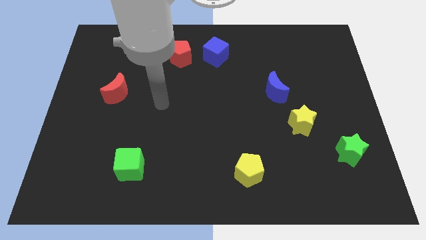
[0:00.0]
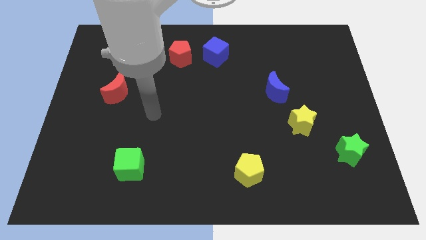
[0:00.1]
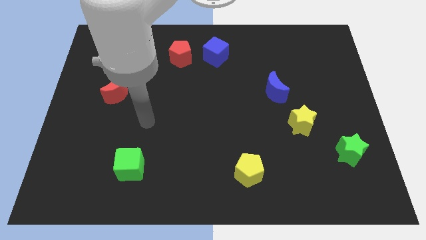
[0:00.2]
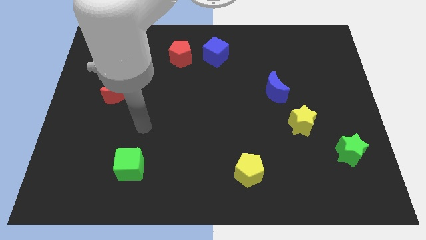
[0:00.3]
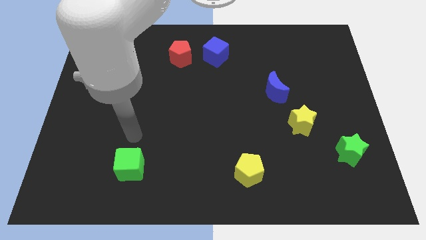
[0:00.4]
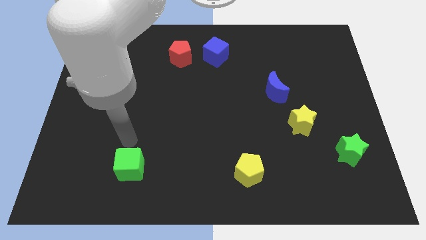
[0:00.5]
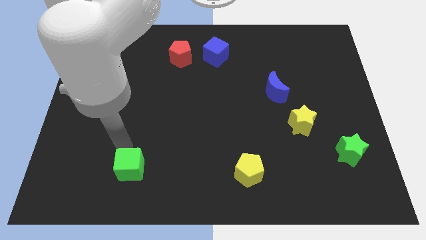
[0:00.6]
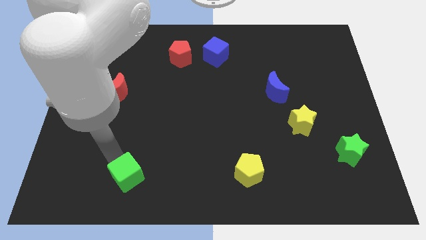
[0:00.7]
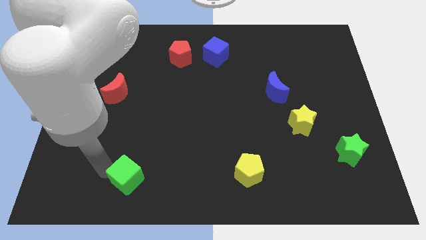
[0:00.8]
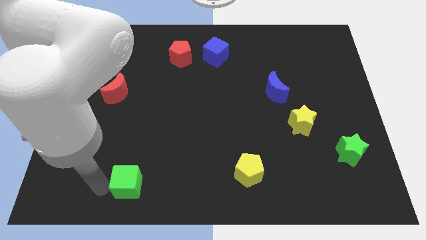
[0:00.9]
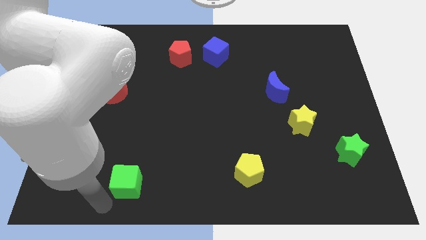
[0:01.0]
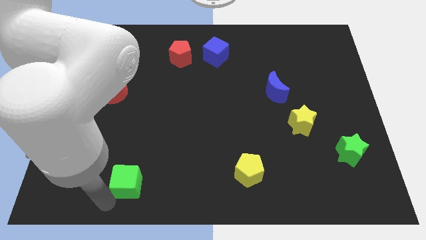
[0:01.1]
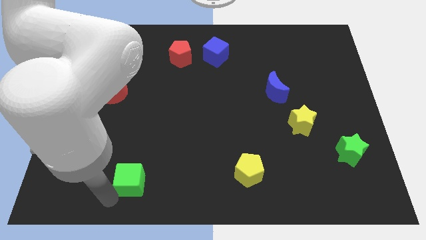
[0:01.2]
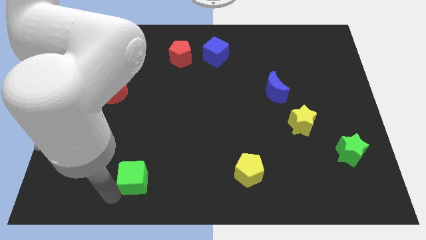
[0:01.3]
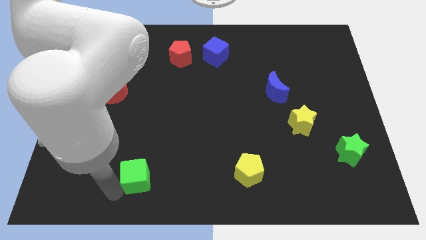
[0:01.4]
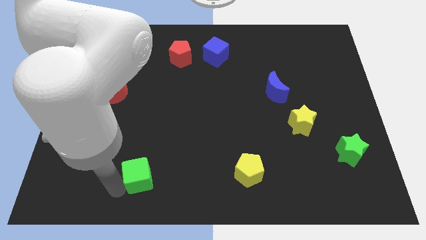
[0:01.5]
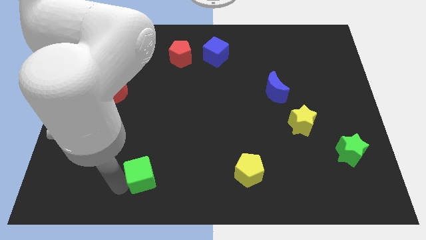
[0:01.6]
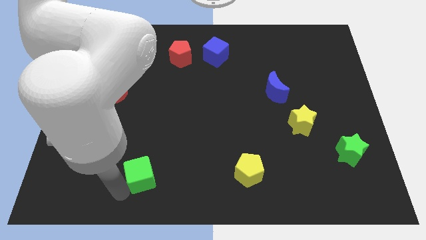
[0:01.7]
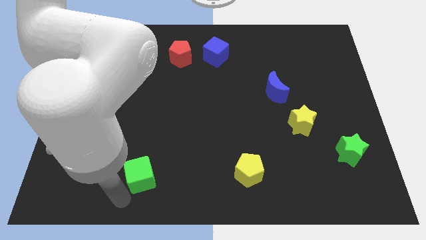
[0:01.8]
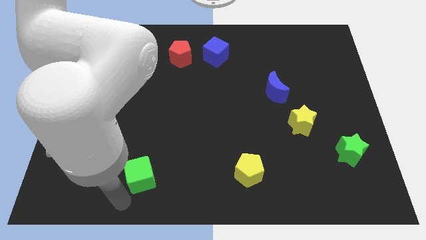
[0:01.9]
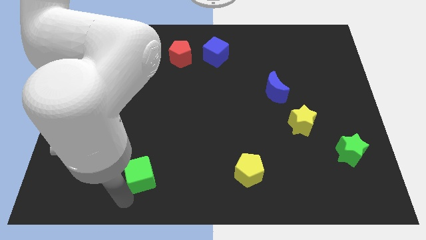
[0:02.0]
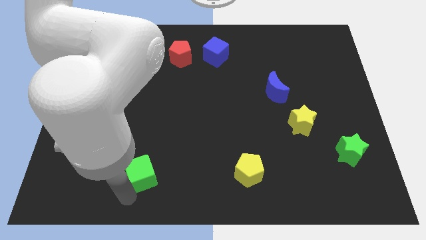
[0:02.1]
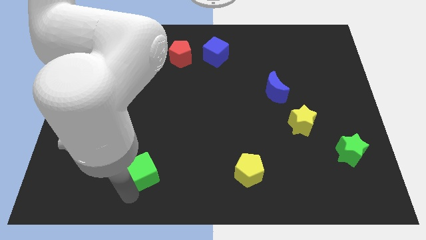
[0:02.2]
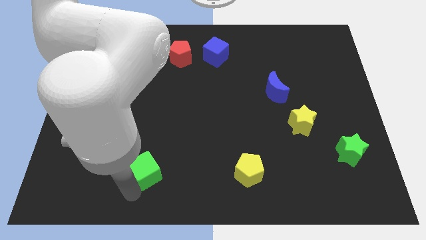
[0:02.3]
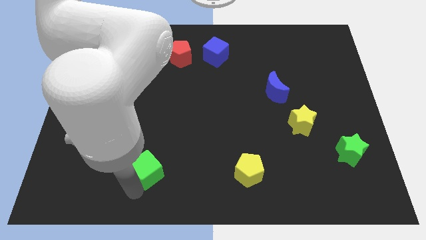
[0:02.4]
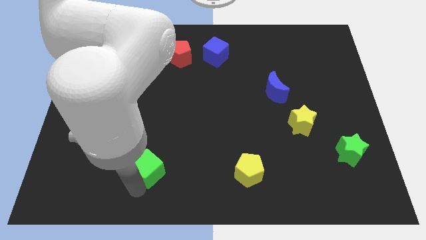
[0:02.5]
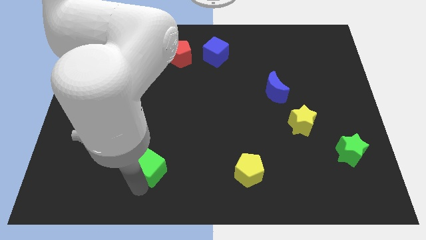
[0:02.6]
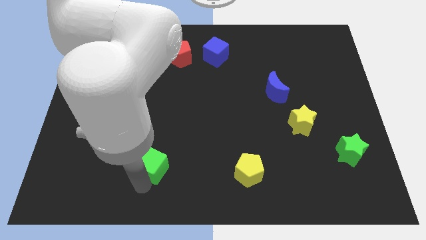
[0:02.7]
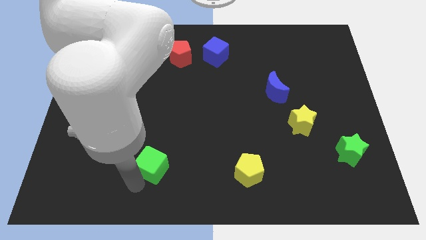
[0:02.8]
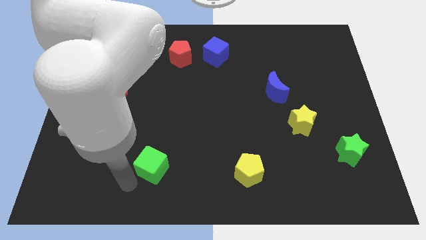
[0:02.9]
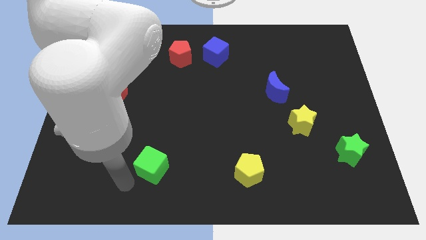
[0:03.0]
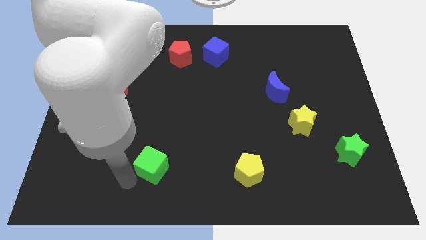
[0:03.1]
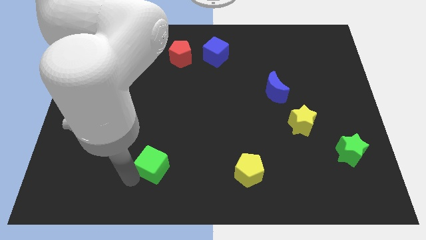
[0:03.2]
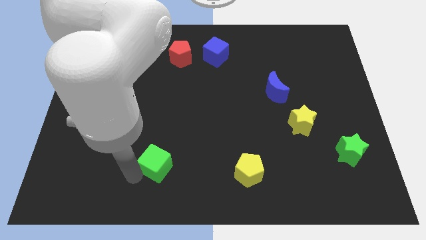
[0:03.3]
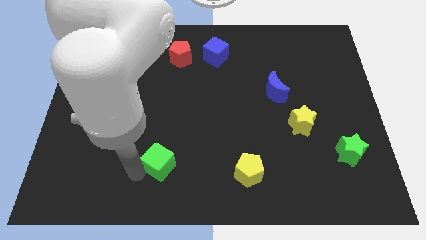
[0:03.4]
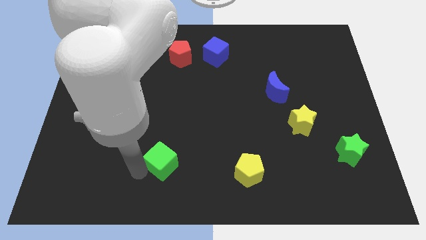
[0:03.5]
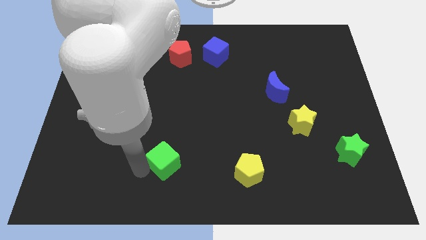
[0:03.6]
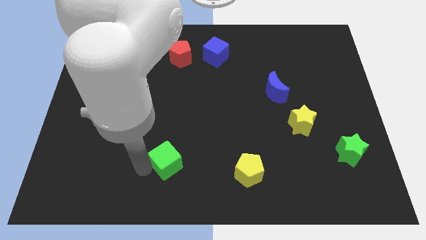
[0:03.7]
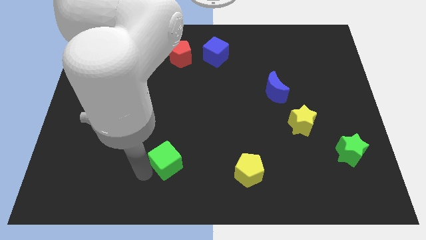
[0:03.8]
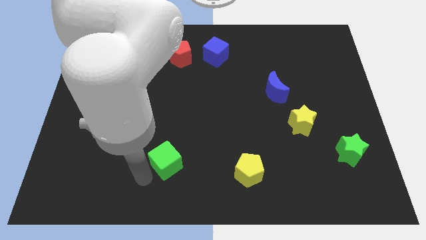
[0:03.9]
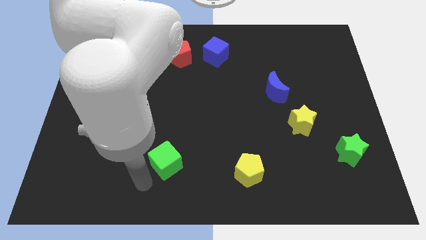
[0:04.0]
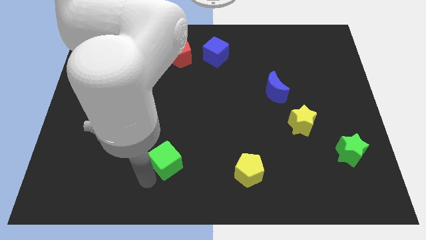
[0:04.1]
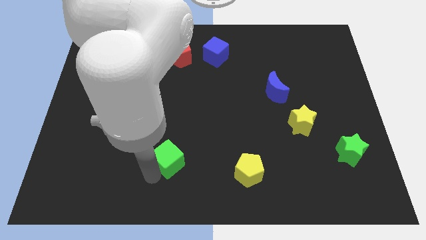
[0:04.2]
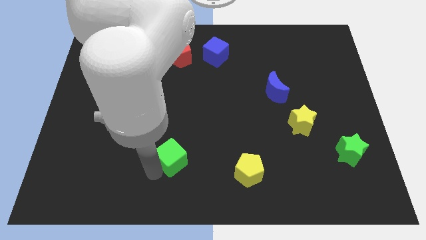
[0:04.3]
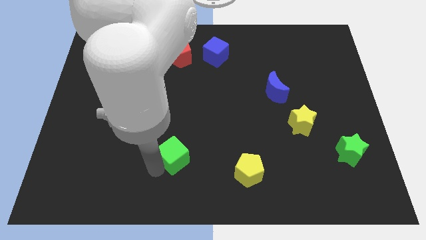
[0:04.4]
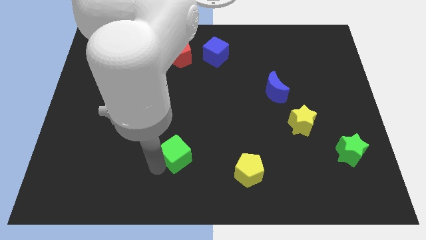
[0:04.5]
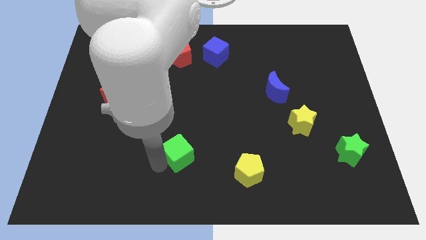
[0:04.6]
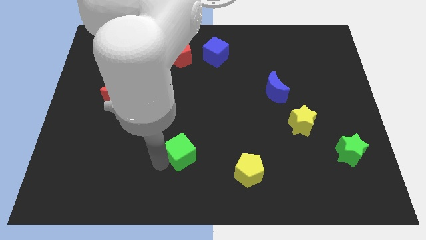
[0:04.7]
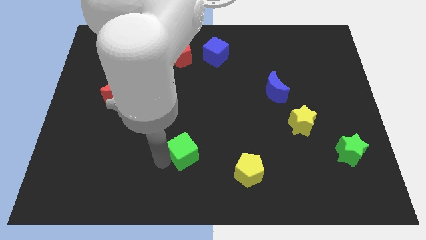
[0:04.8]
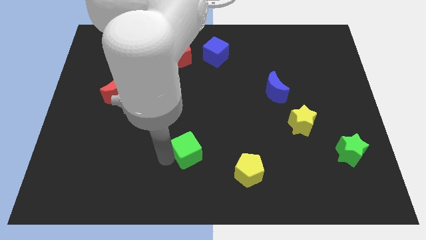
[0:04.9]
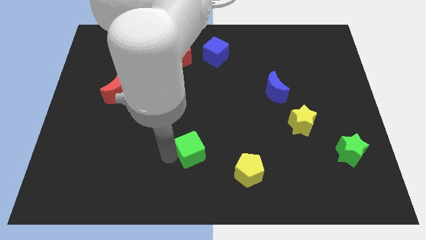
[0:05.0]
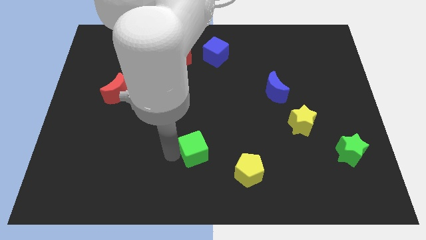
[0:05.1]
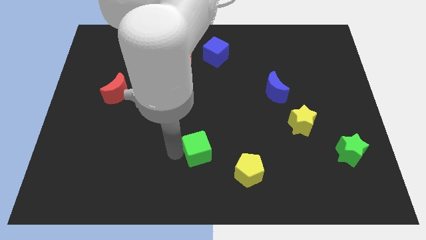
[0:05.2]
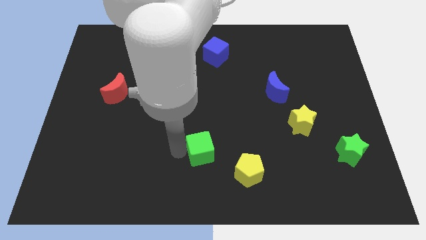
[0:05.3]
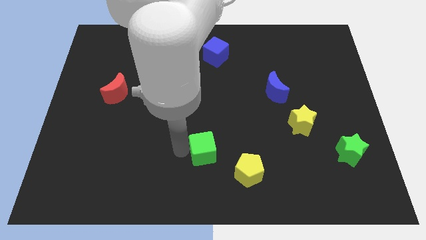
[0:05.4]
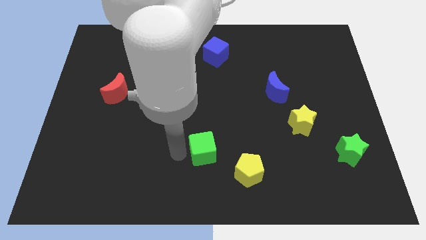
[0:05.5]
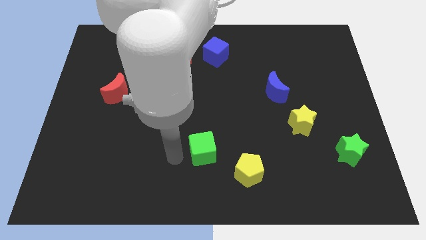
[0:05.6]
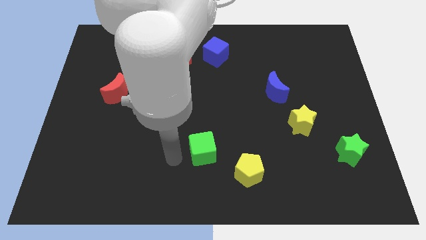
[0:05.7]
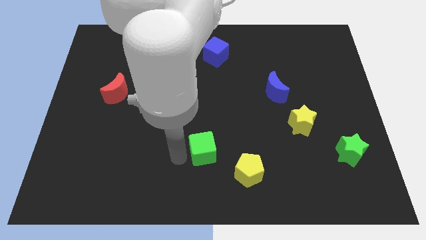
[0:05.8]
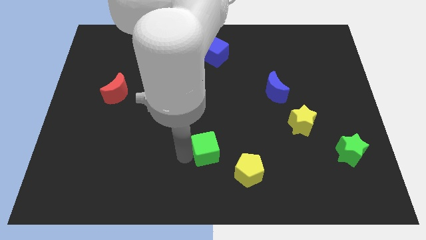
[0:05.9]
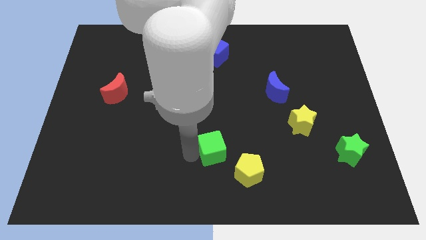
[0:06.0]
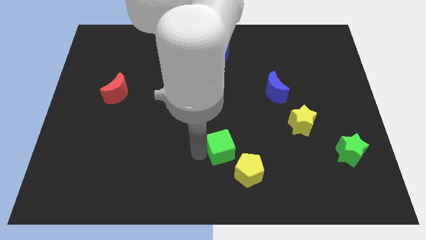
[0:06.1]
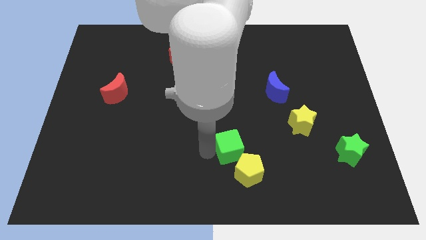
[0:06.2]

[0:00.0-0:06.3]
move the green cube right

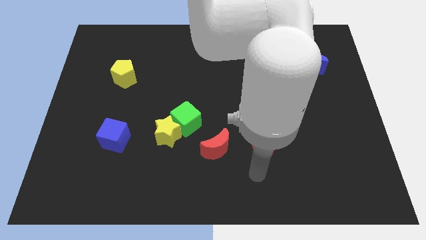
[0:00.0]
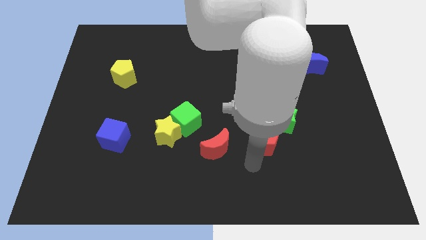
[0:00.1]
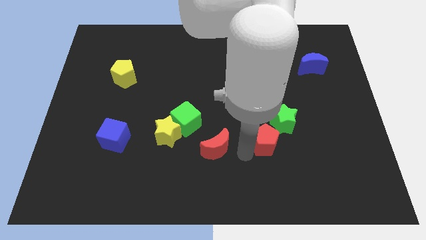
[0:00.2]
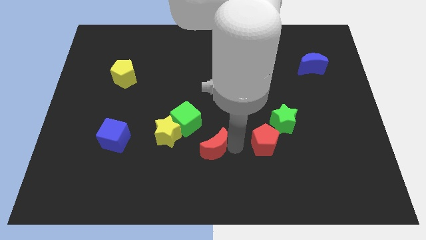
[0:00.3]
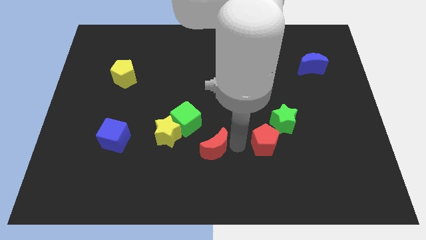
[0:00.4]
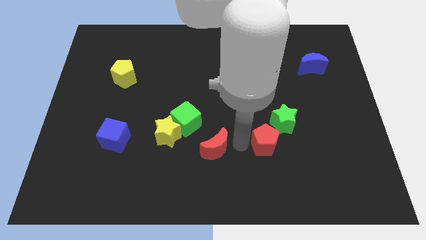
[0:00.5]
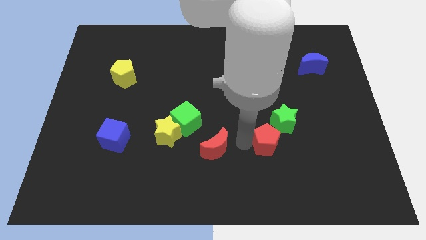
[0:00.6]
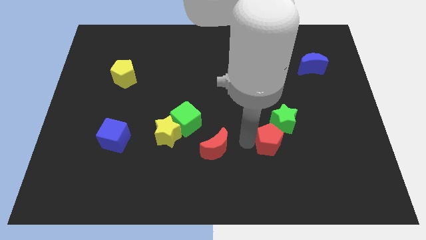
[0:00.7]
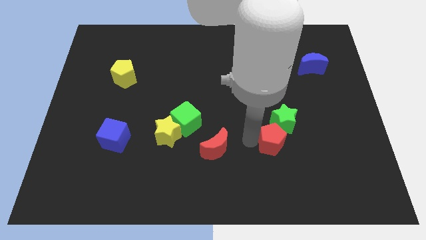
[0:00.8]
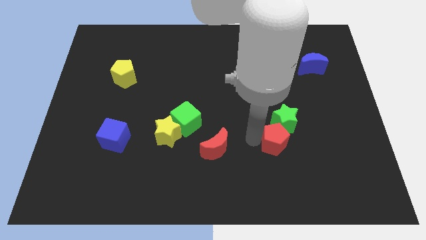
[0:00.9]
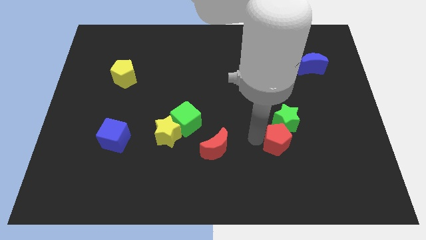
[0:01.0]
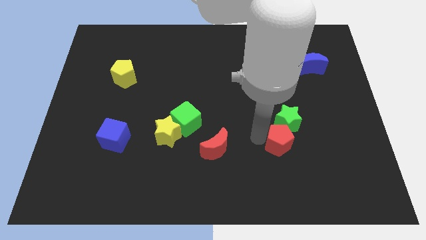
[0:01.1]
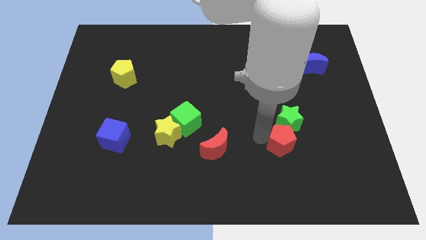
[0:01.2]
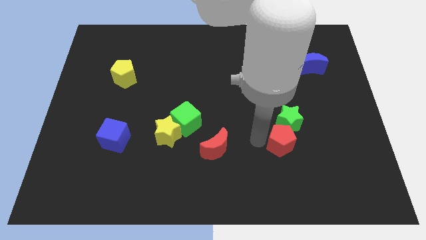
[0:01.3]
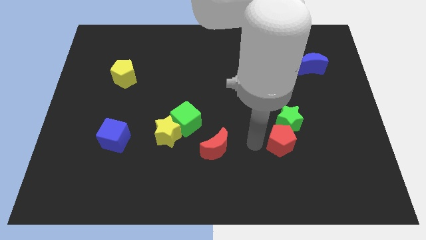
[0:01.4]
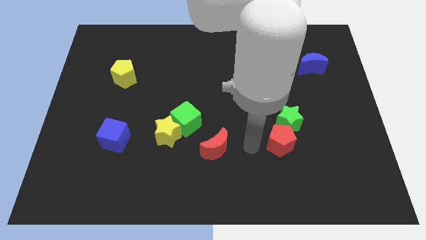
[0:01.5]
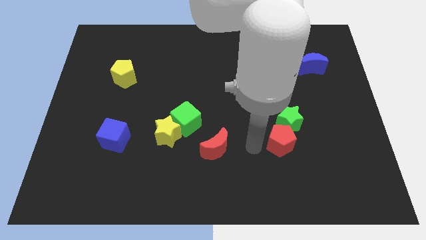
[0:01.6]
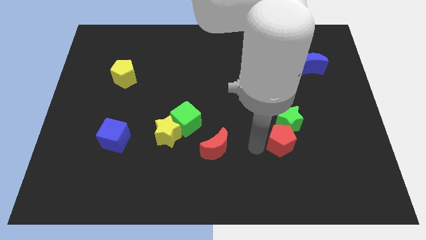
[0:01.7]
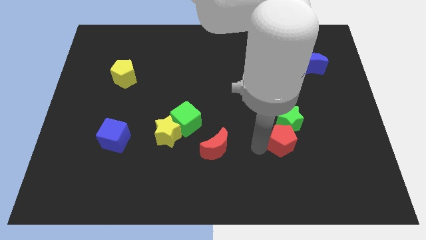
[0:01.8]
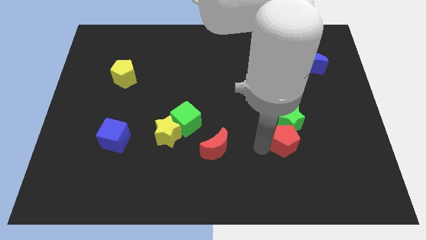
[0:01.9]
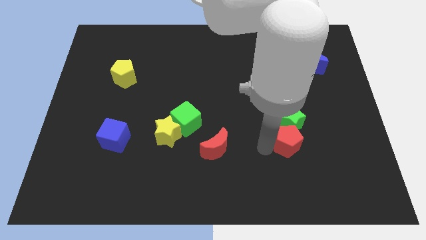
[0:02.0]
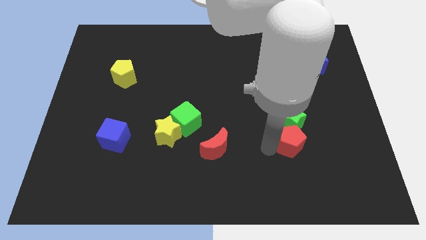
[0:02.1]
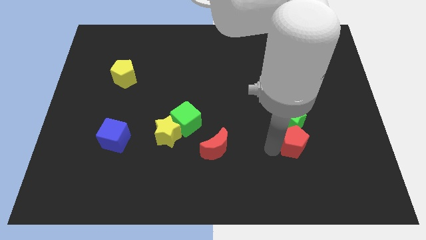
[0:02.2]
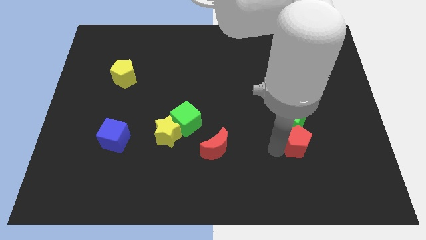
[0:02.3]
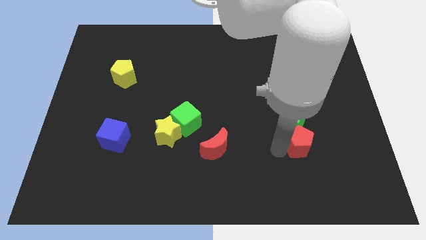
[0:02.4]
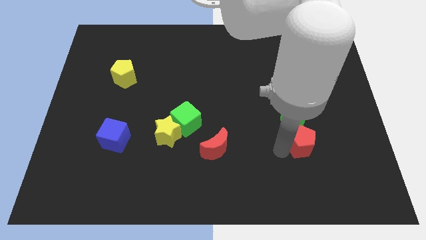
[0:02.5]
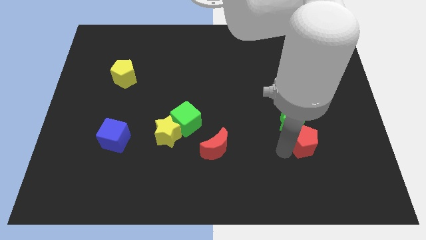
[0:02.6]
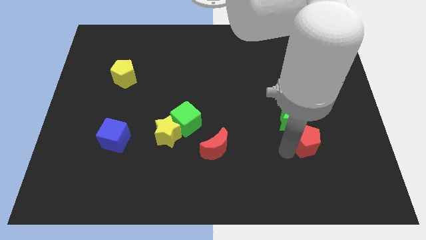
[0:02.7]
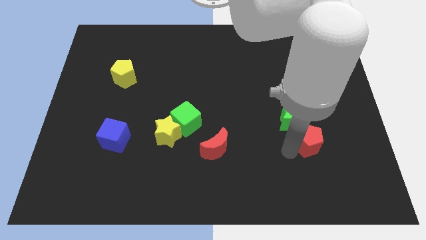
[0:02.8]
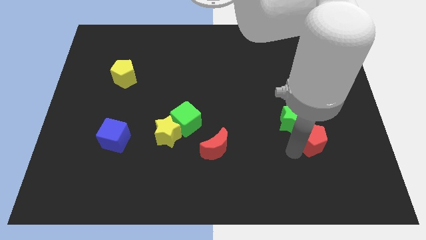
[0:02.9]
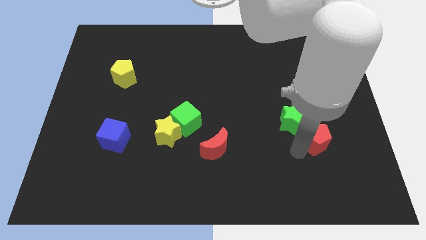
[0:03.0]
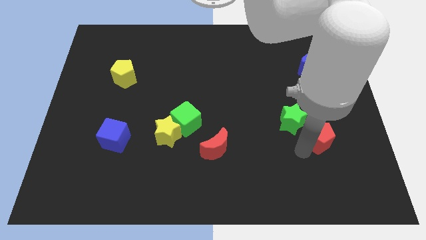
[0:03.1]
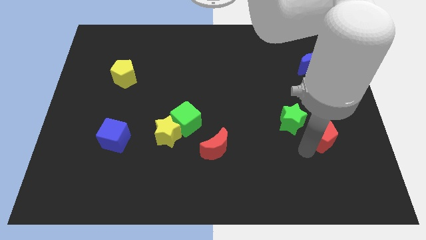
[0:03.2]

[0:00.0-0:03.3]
move the red pentagon a little bit up and to the right diagonally
